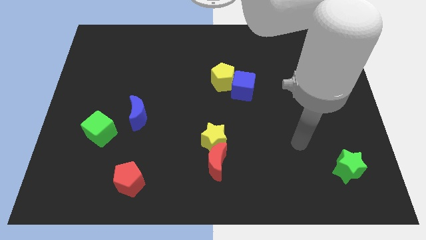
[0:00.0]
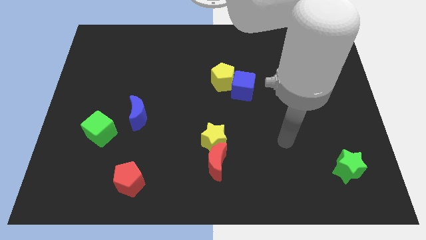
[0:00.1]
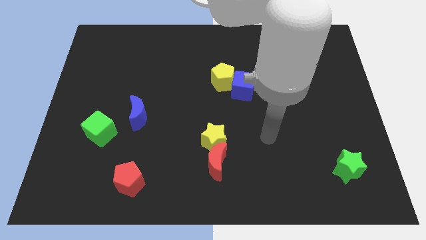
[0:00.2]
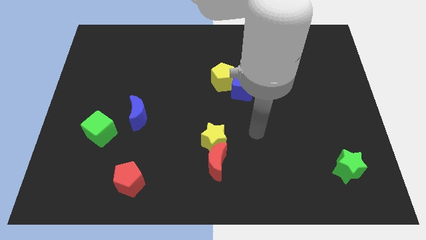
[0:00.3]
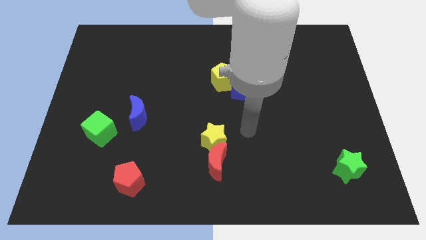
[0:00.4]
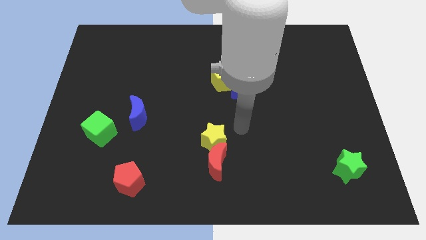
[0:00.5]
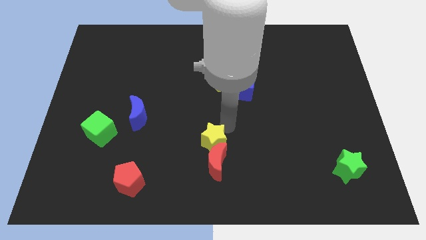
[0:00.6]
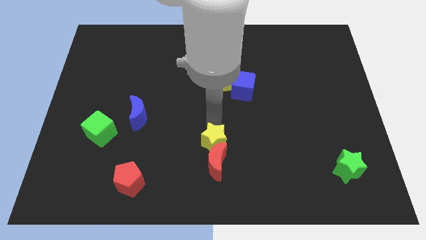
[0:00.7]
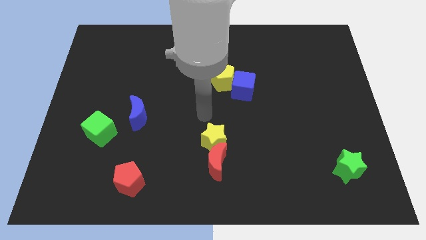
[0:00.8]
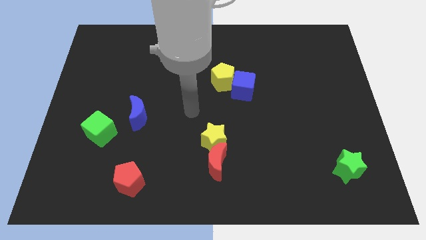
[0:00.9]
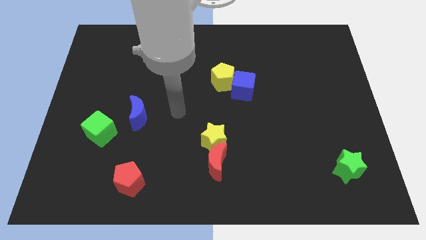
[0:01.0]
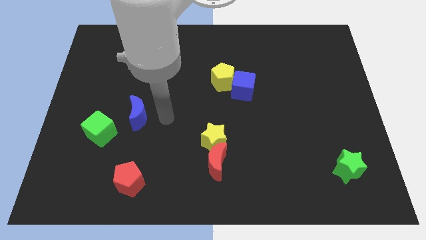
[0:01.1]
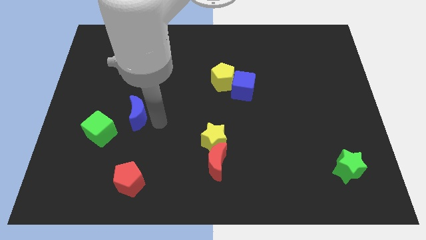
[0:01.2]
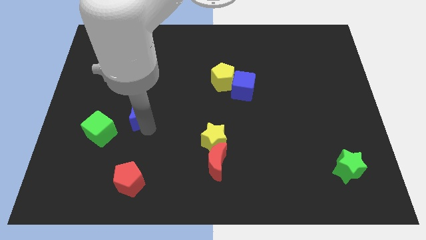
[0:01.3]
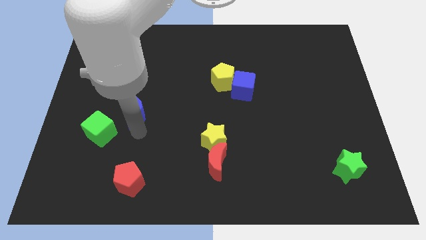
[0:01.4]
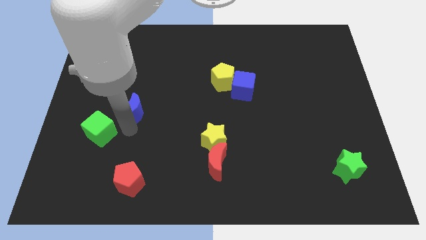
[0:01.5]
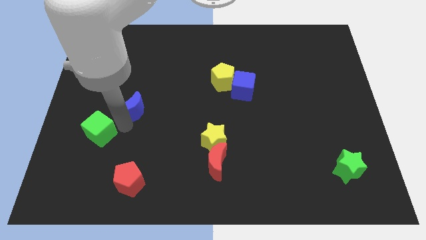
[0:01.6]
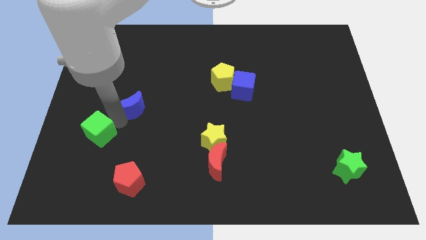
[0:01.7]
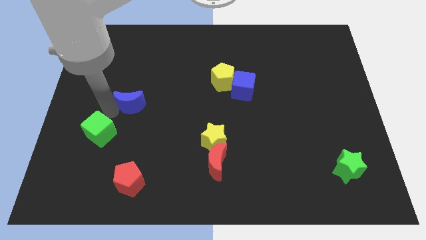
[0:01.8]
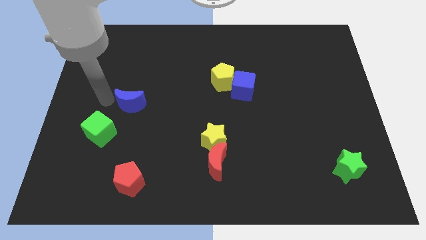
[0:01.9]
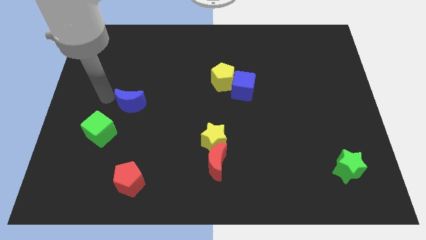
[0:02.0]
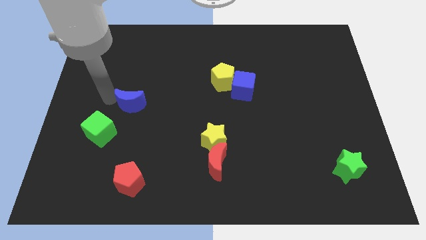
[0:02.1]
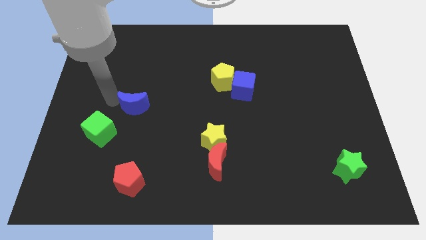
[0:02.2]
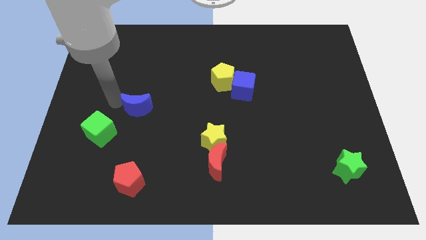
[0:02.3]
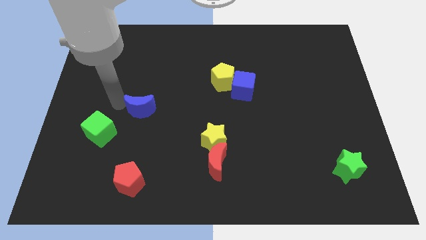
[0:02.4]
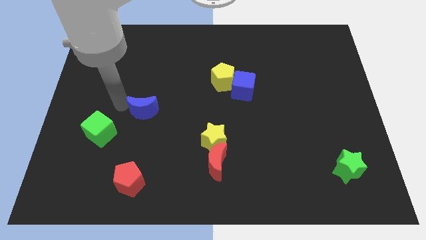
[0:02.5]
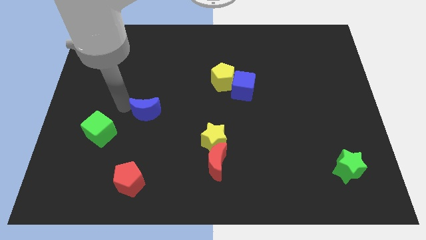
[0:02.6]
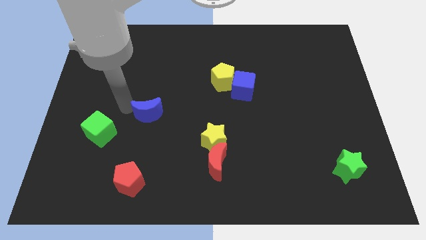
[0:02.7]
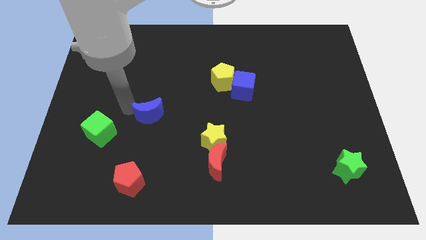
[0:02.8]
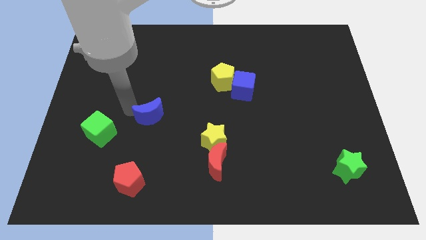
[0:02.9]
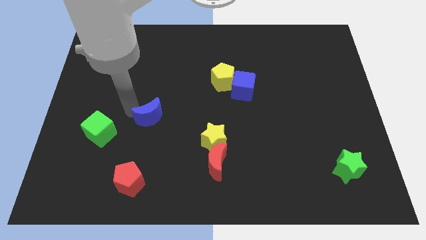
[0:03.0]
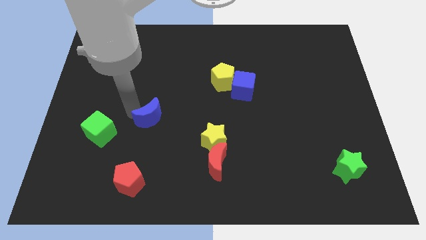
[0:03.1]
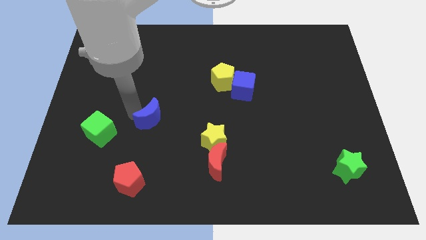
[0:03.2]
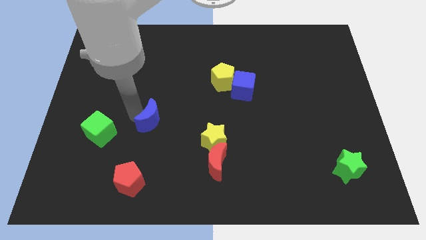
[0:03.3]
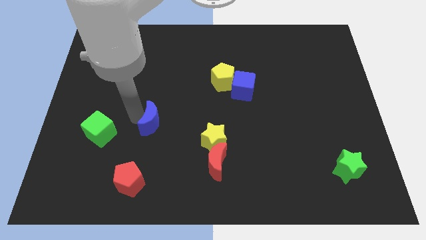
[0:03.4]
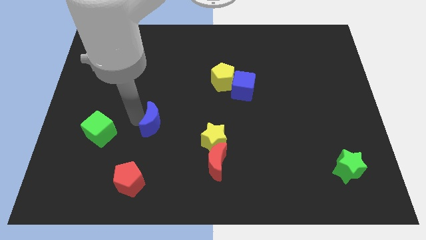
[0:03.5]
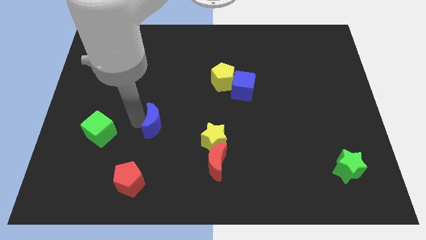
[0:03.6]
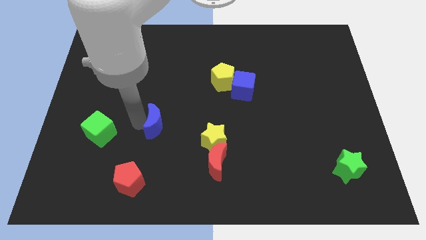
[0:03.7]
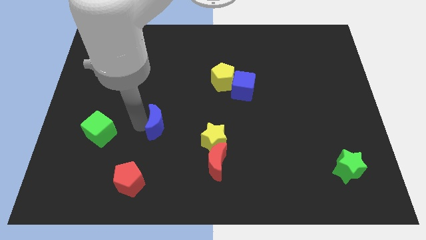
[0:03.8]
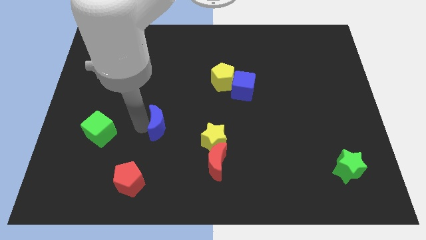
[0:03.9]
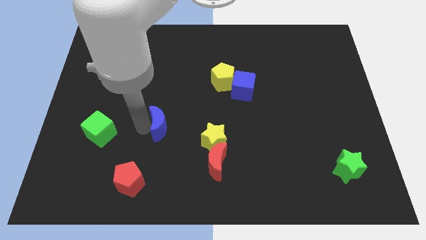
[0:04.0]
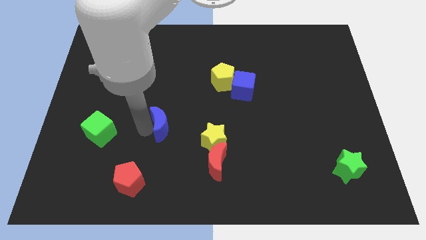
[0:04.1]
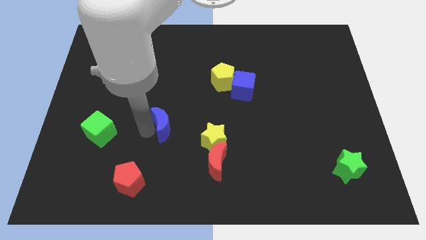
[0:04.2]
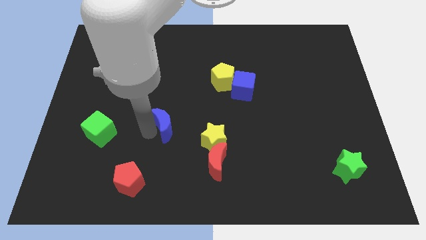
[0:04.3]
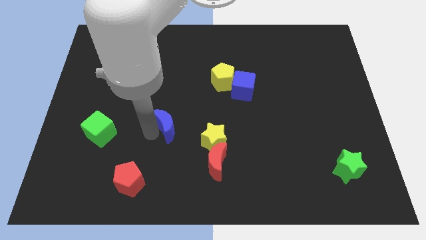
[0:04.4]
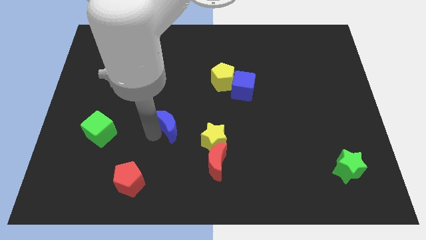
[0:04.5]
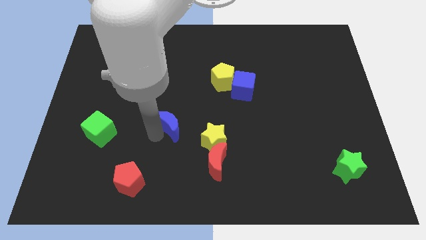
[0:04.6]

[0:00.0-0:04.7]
push the blue moon slightly right

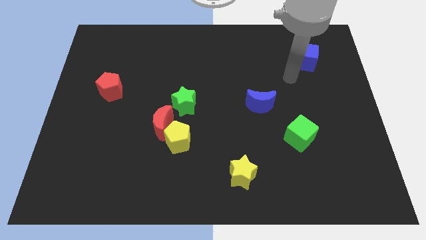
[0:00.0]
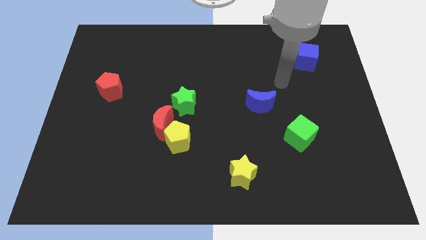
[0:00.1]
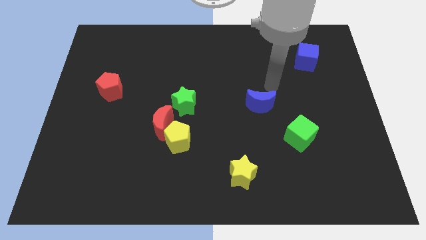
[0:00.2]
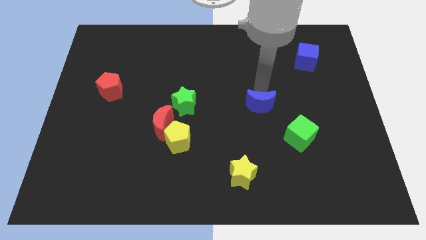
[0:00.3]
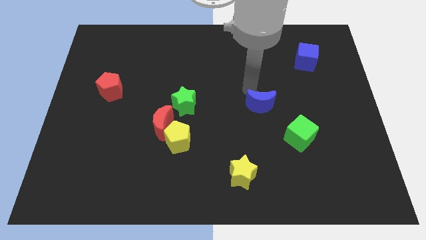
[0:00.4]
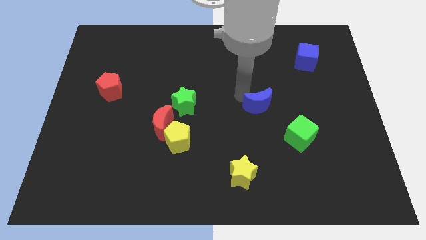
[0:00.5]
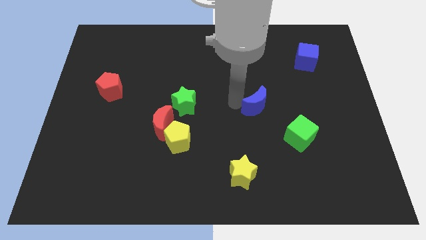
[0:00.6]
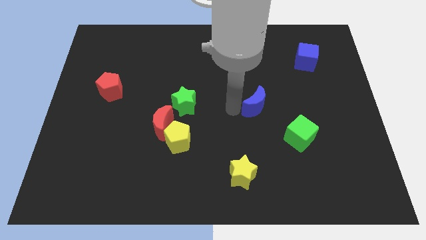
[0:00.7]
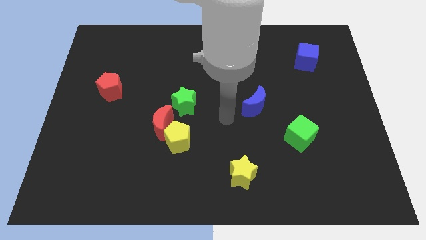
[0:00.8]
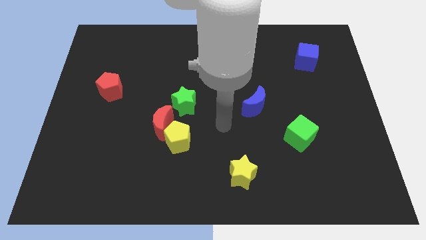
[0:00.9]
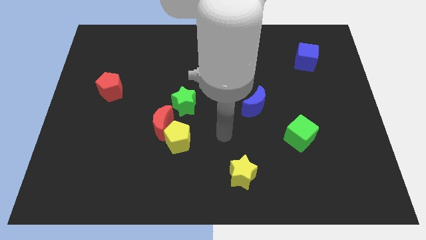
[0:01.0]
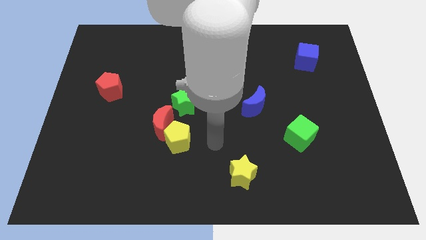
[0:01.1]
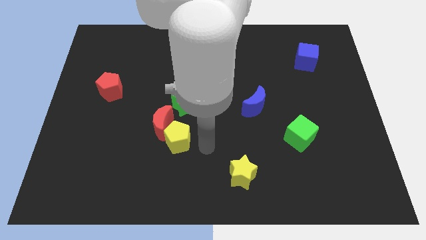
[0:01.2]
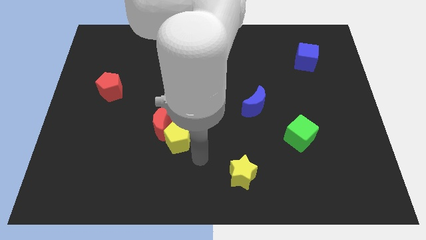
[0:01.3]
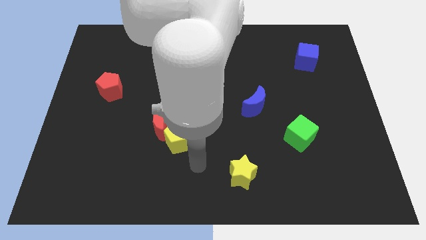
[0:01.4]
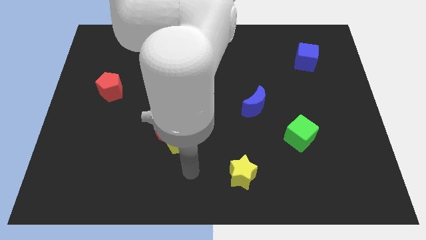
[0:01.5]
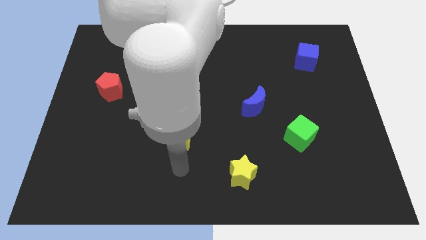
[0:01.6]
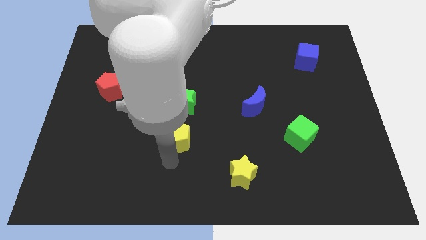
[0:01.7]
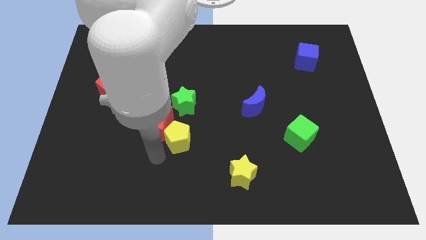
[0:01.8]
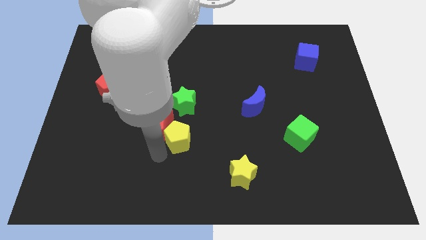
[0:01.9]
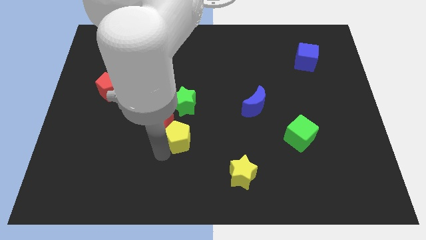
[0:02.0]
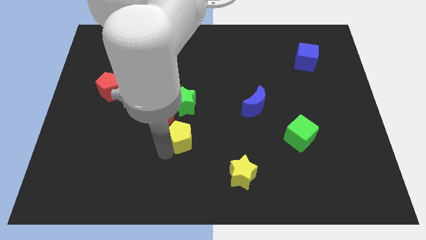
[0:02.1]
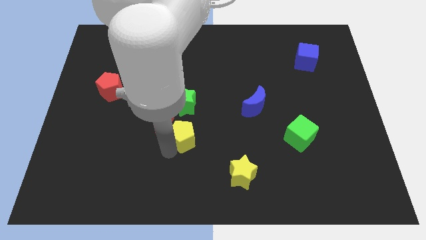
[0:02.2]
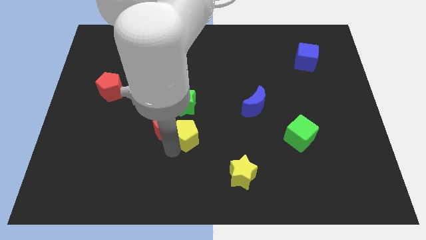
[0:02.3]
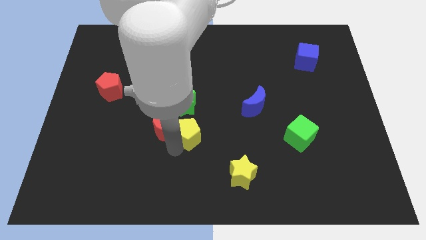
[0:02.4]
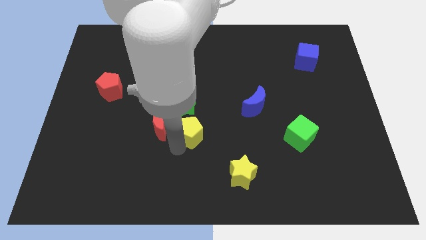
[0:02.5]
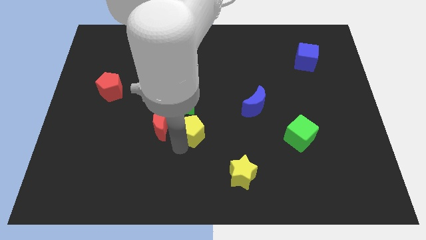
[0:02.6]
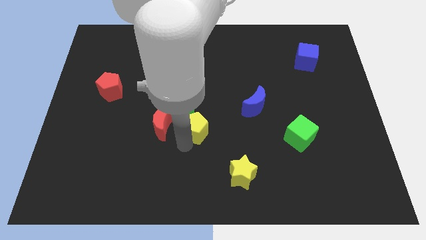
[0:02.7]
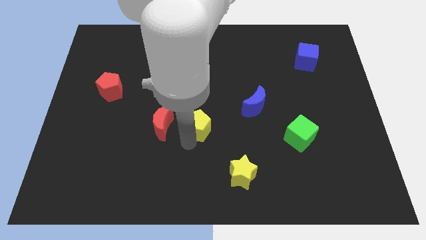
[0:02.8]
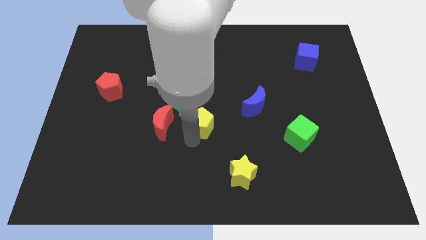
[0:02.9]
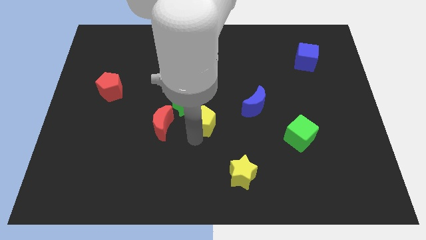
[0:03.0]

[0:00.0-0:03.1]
slide the yellow pentagon somewhat upwards and right diagonally
